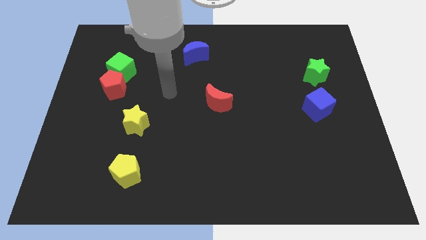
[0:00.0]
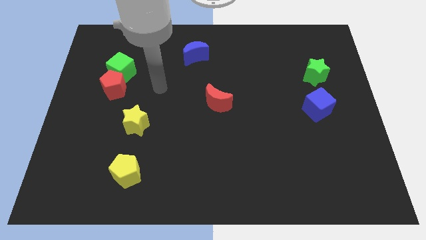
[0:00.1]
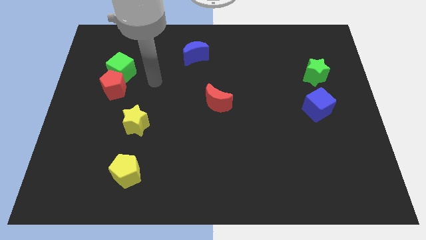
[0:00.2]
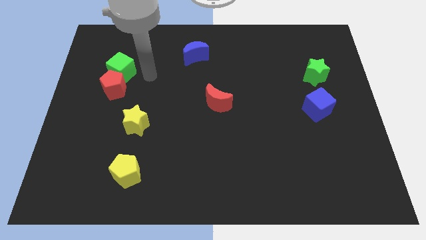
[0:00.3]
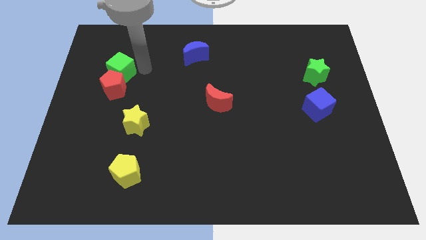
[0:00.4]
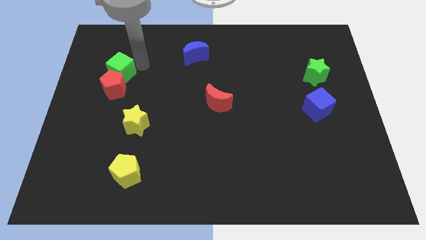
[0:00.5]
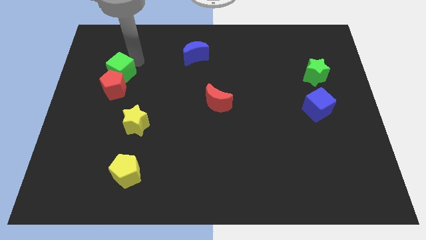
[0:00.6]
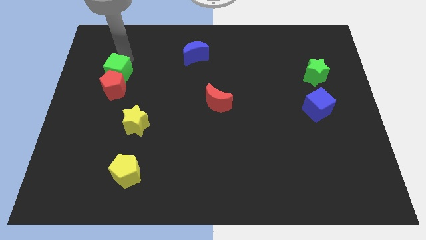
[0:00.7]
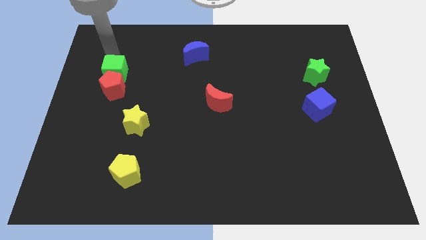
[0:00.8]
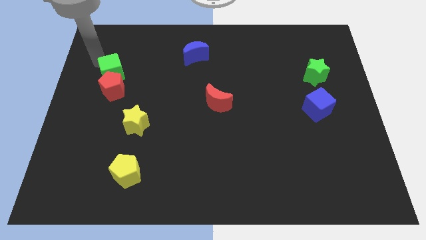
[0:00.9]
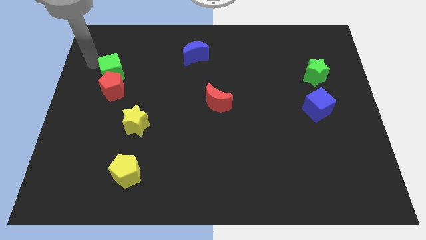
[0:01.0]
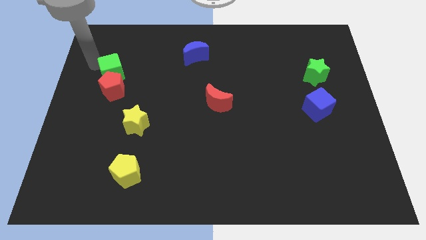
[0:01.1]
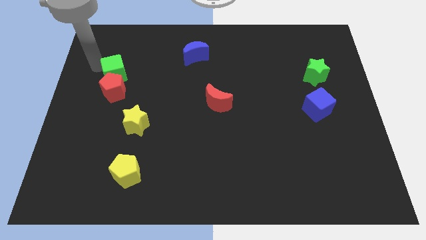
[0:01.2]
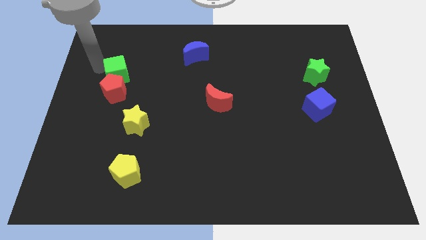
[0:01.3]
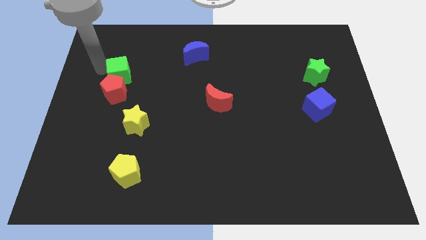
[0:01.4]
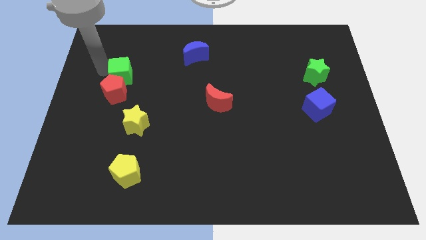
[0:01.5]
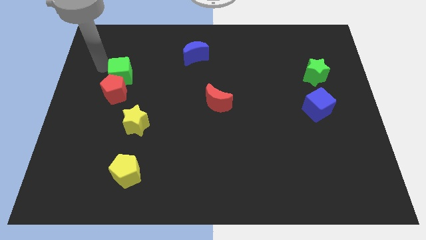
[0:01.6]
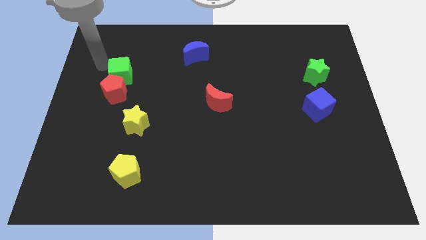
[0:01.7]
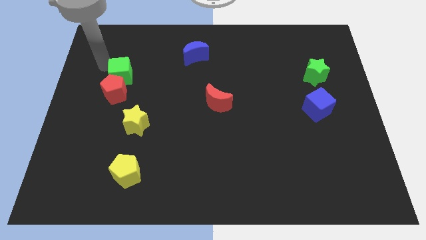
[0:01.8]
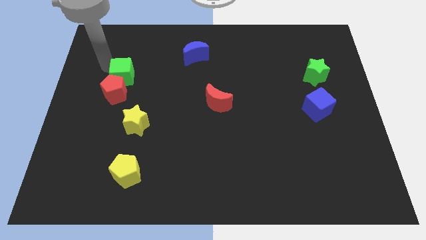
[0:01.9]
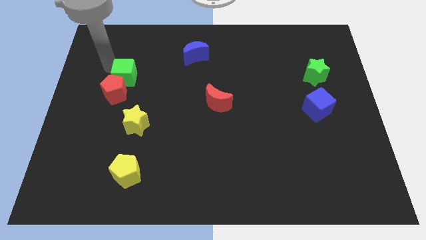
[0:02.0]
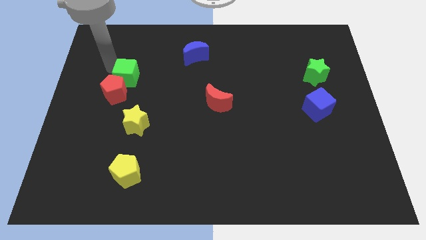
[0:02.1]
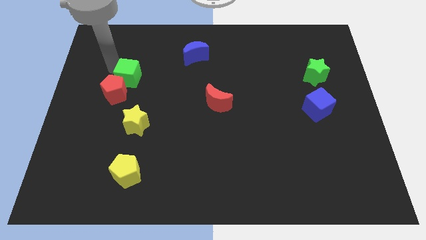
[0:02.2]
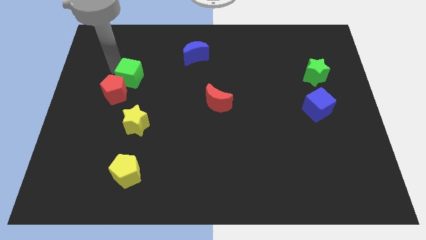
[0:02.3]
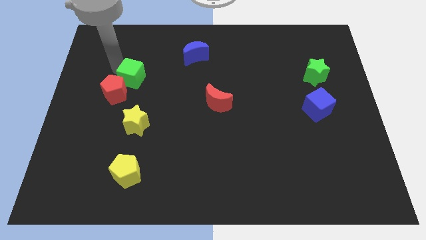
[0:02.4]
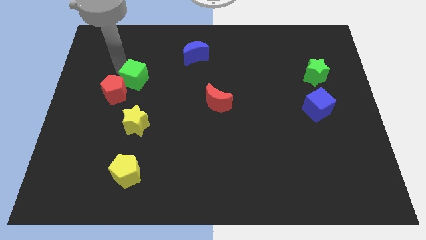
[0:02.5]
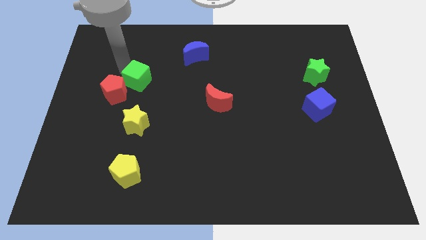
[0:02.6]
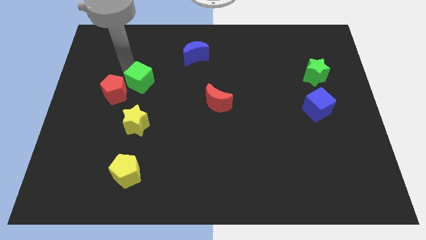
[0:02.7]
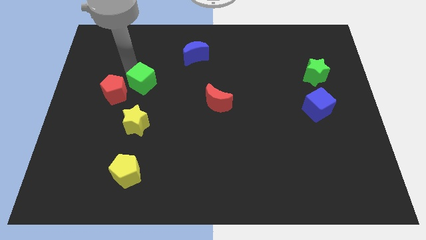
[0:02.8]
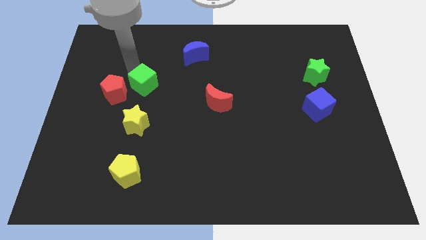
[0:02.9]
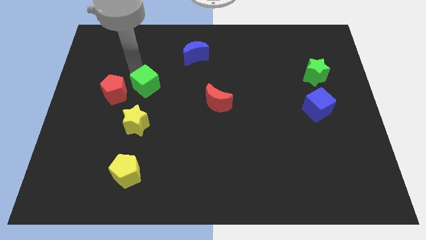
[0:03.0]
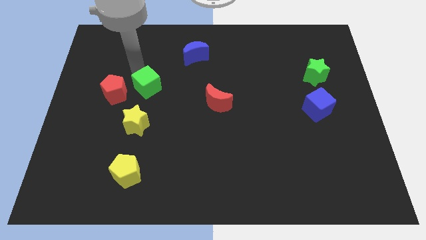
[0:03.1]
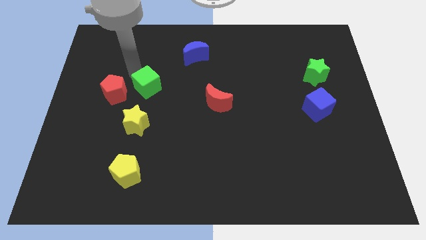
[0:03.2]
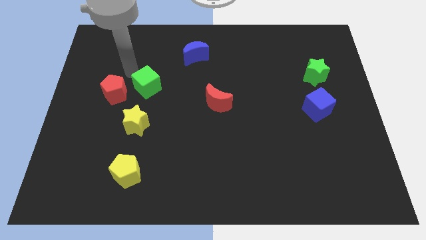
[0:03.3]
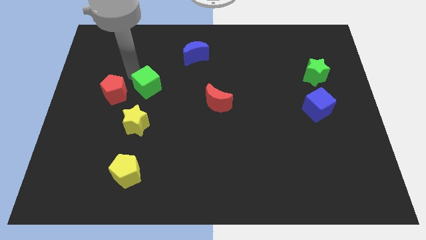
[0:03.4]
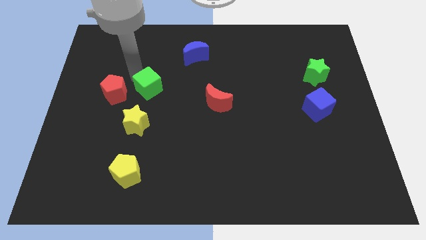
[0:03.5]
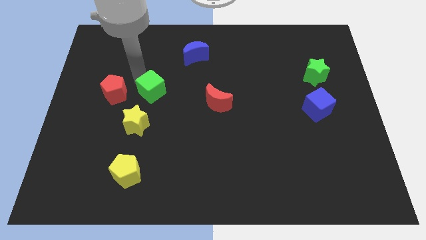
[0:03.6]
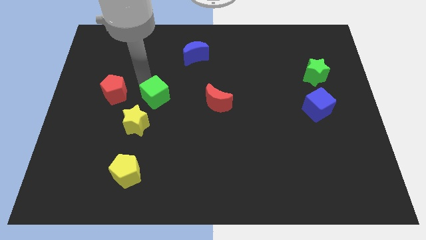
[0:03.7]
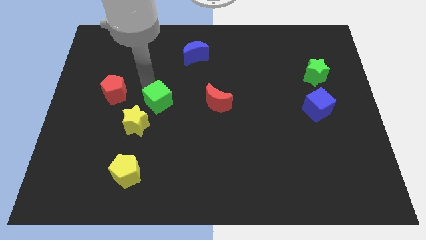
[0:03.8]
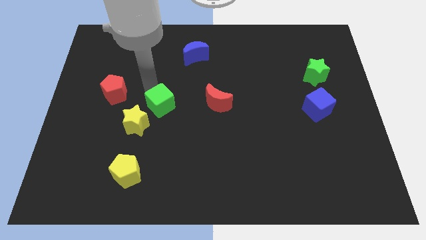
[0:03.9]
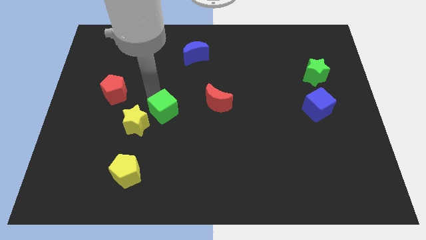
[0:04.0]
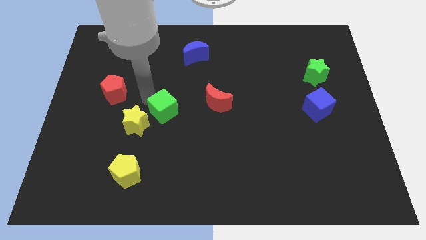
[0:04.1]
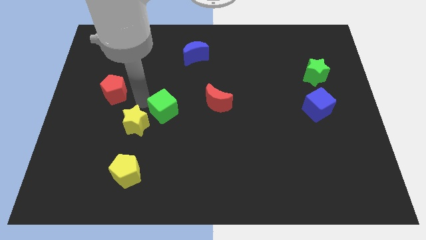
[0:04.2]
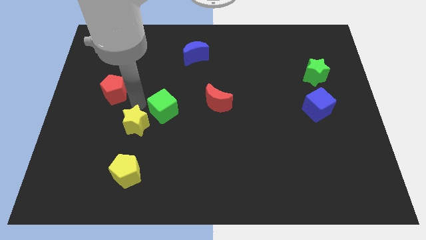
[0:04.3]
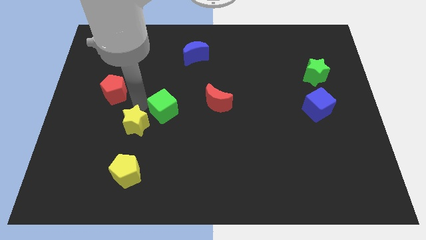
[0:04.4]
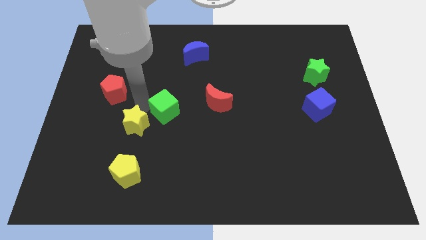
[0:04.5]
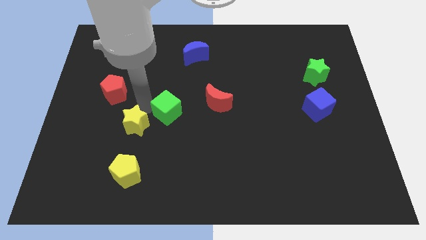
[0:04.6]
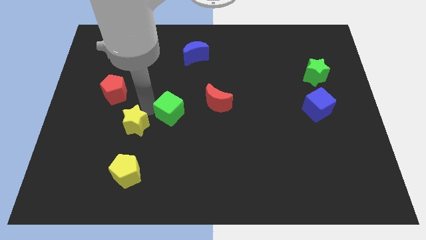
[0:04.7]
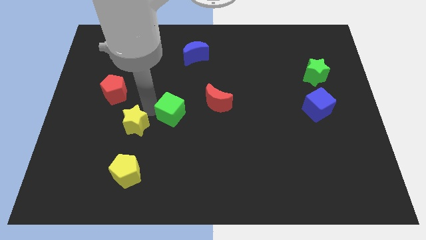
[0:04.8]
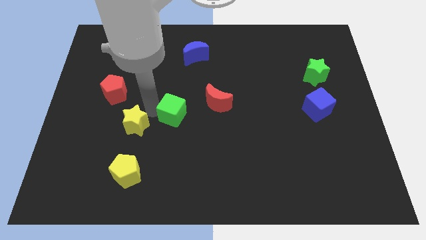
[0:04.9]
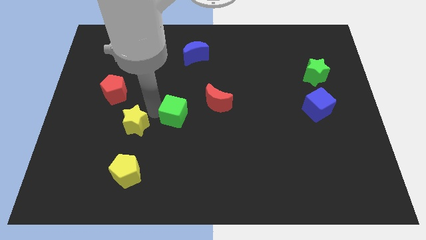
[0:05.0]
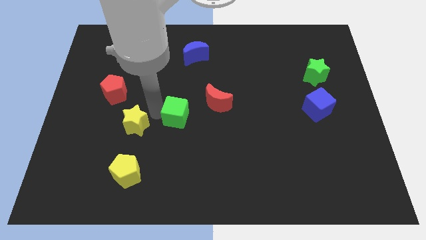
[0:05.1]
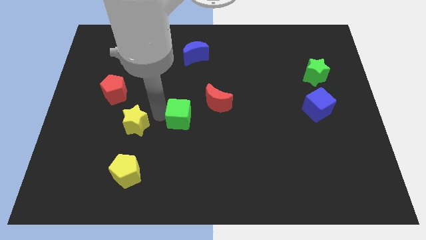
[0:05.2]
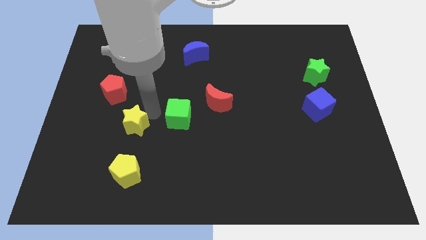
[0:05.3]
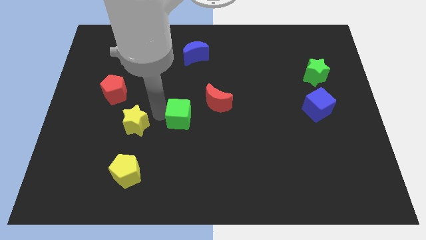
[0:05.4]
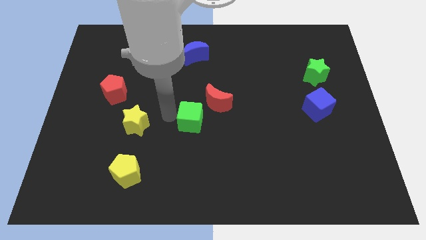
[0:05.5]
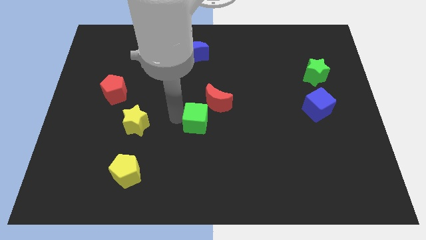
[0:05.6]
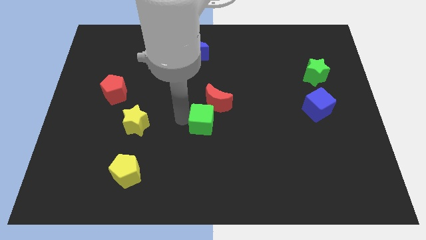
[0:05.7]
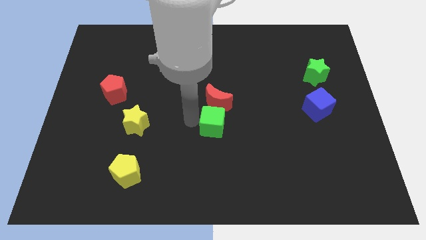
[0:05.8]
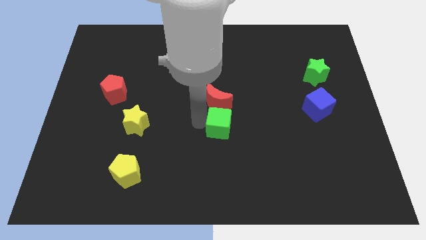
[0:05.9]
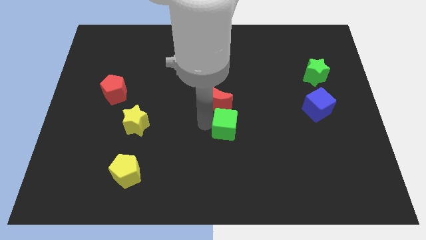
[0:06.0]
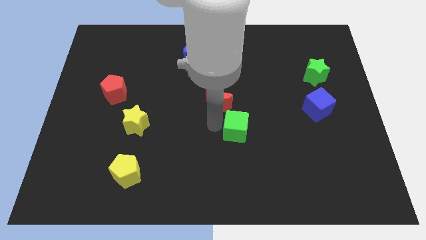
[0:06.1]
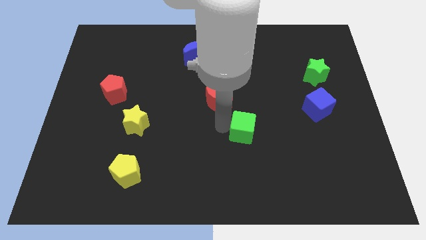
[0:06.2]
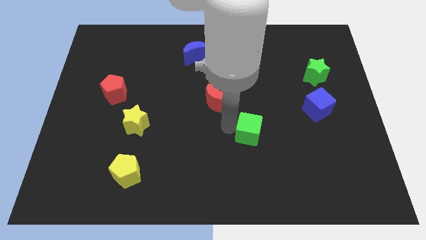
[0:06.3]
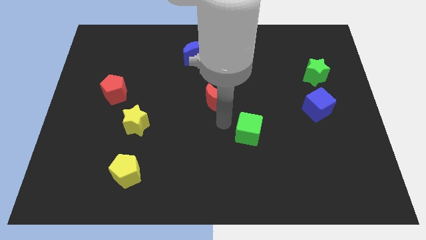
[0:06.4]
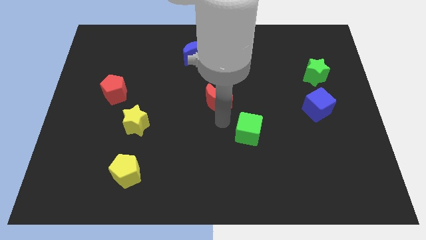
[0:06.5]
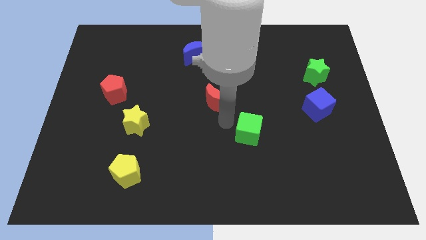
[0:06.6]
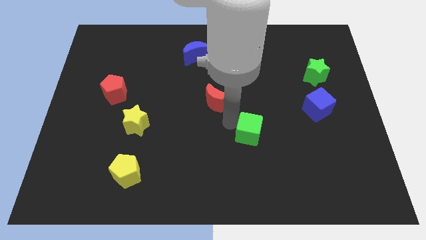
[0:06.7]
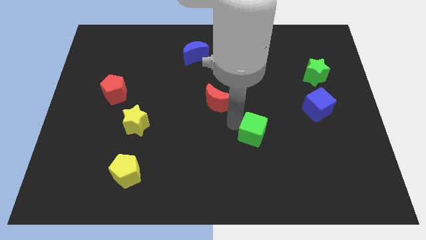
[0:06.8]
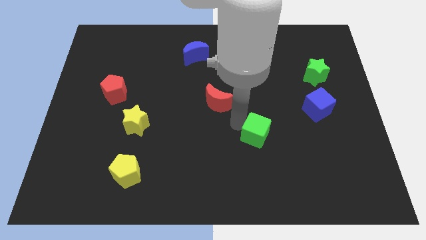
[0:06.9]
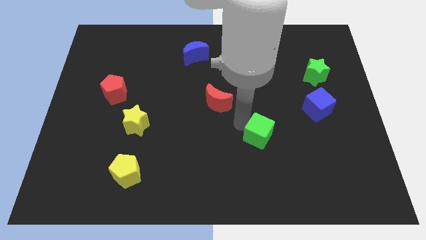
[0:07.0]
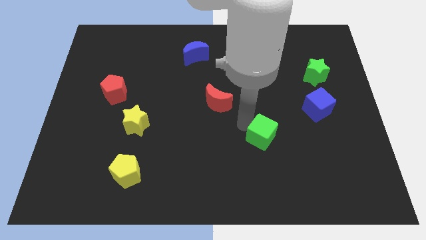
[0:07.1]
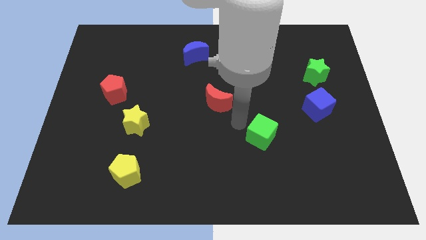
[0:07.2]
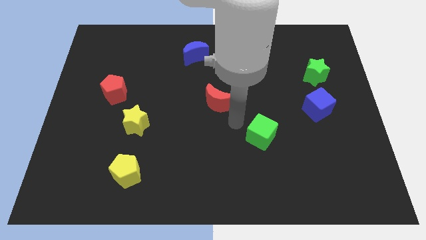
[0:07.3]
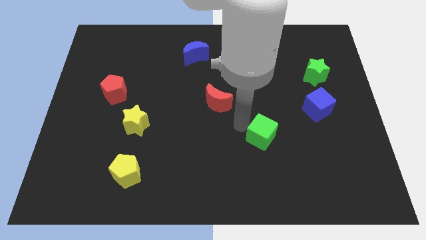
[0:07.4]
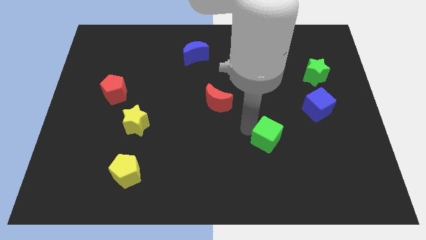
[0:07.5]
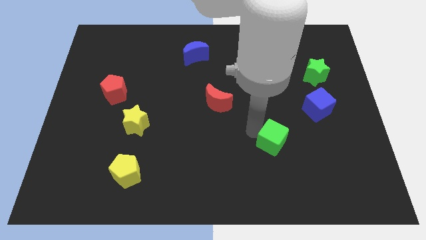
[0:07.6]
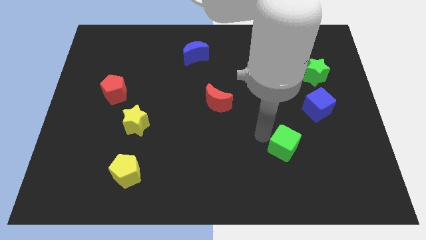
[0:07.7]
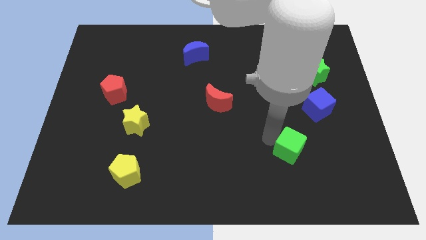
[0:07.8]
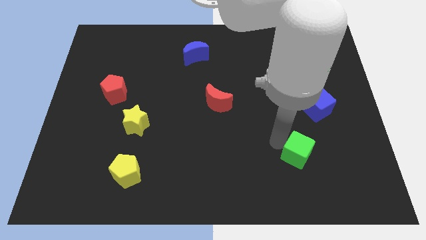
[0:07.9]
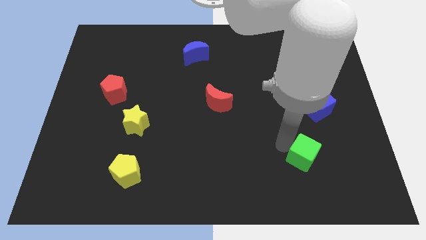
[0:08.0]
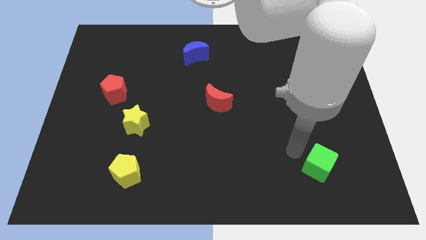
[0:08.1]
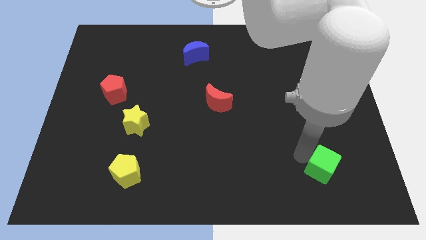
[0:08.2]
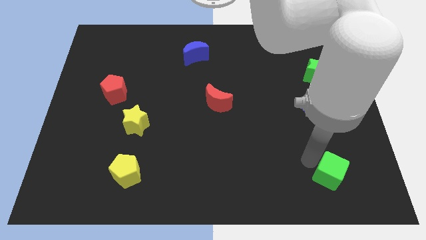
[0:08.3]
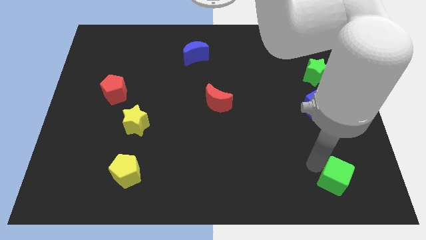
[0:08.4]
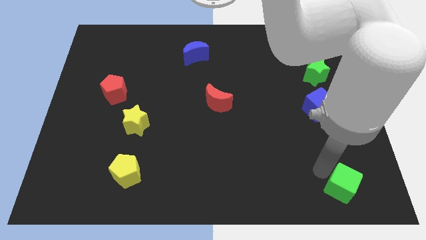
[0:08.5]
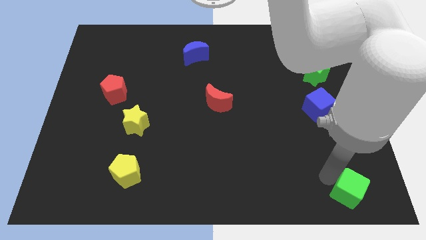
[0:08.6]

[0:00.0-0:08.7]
slide the green cube to the bottom right
